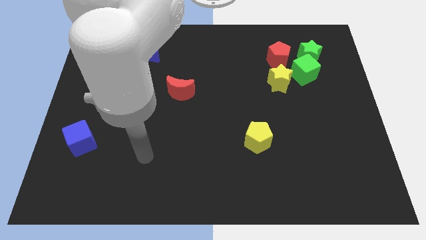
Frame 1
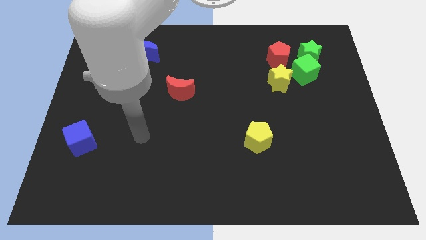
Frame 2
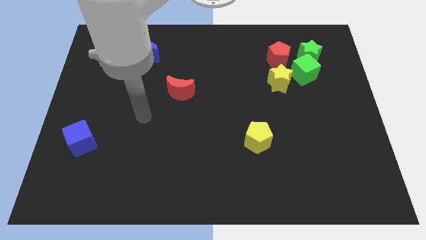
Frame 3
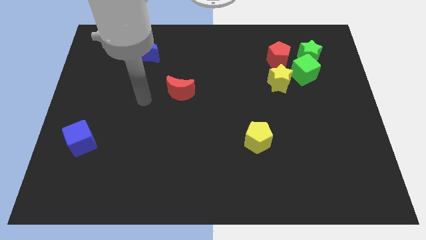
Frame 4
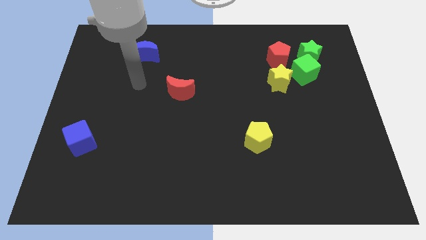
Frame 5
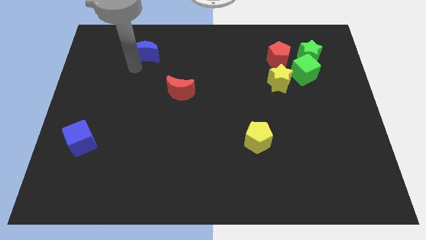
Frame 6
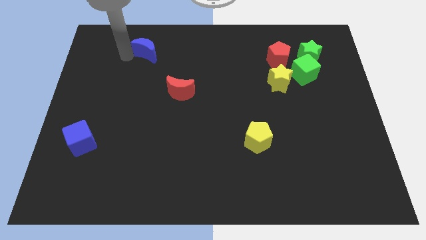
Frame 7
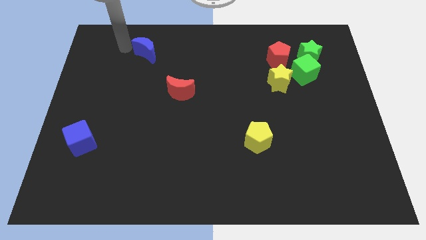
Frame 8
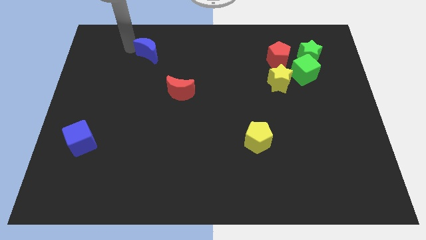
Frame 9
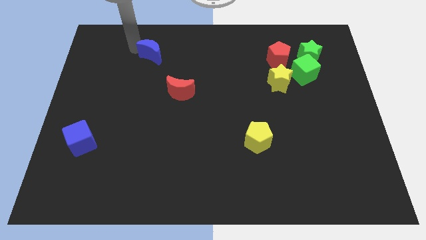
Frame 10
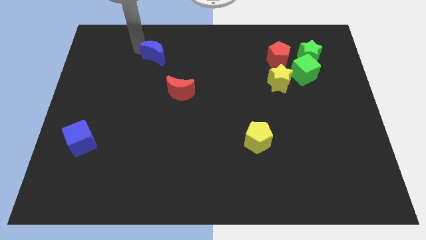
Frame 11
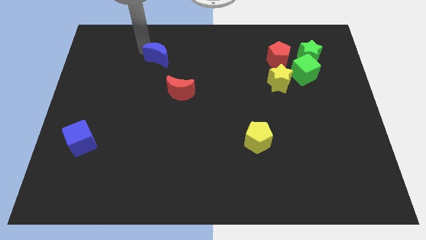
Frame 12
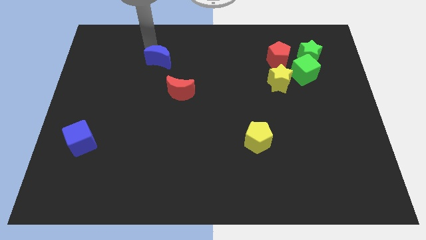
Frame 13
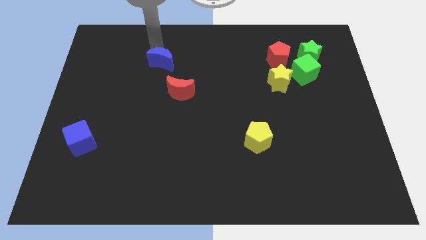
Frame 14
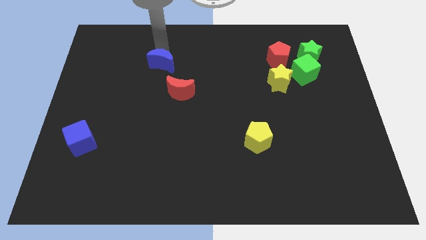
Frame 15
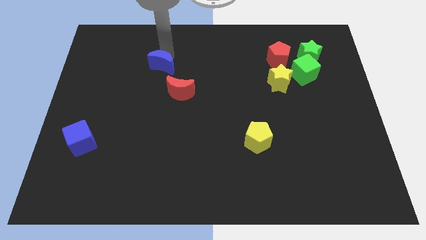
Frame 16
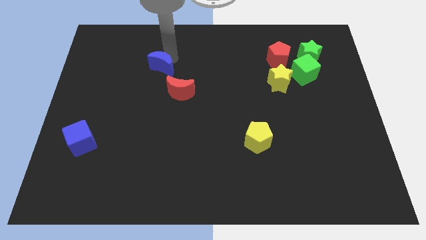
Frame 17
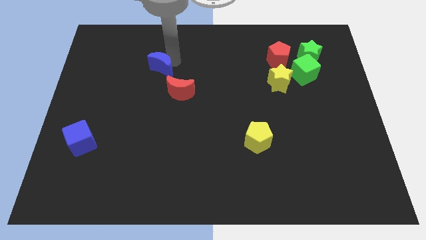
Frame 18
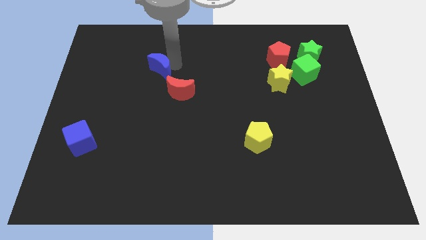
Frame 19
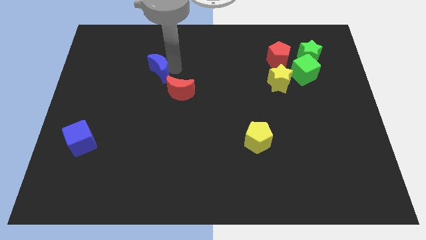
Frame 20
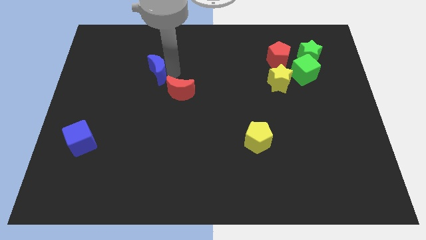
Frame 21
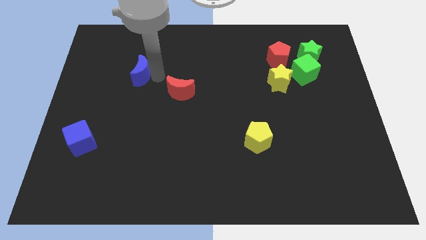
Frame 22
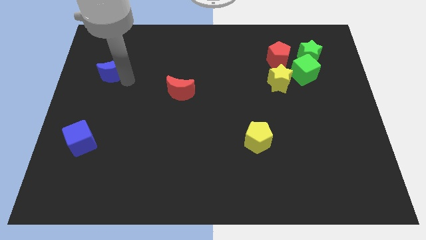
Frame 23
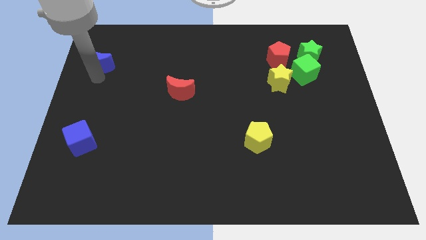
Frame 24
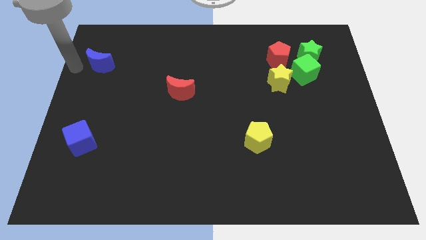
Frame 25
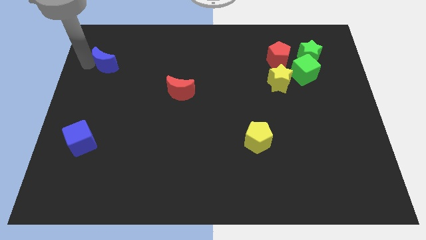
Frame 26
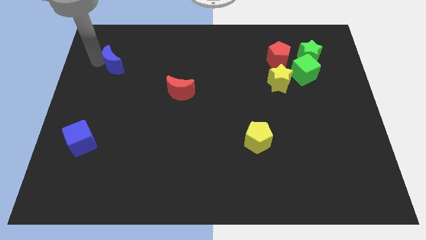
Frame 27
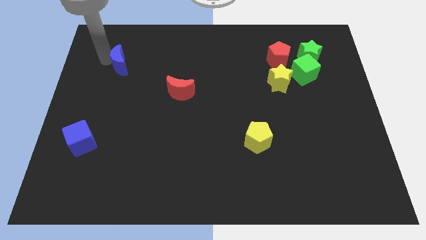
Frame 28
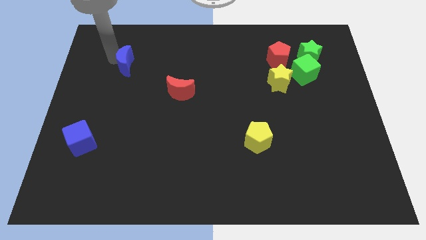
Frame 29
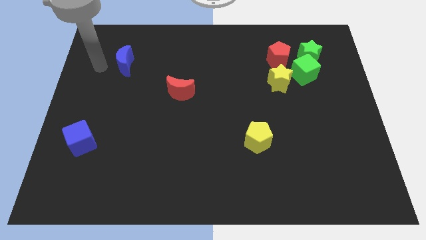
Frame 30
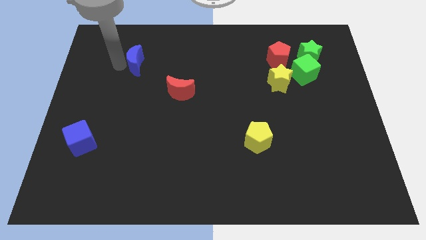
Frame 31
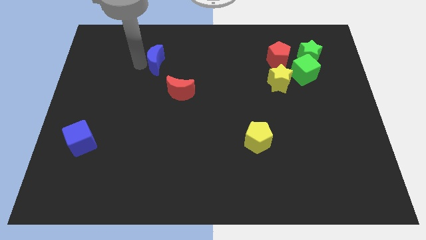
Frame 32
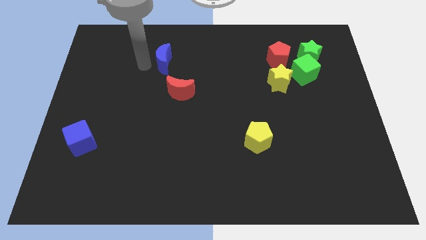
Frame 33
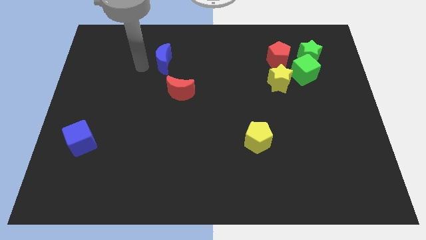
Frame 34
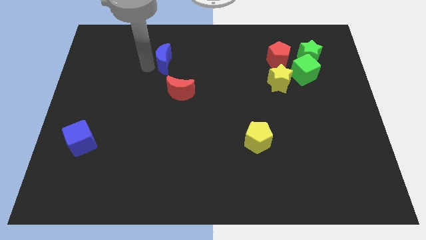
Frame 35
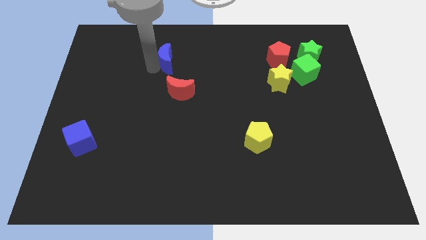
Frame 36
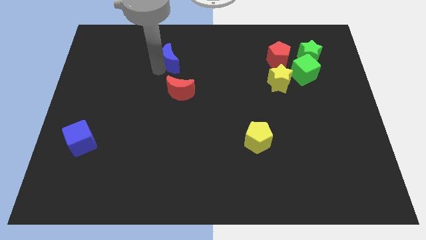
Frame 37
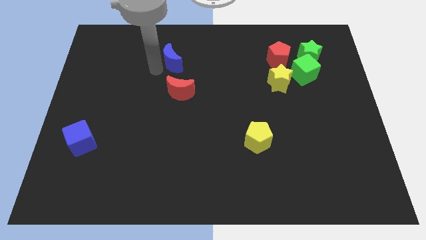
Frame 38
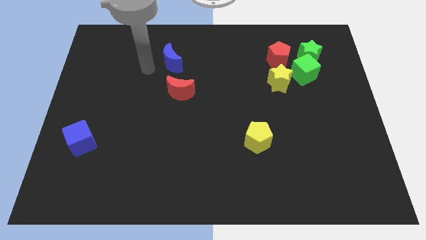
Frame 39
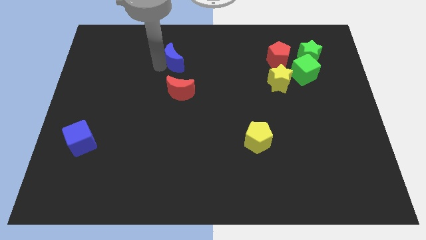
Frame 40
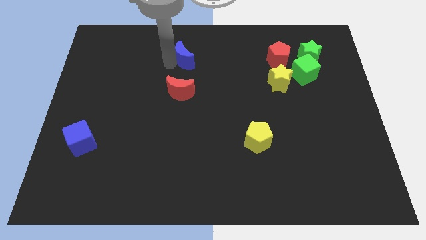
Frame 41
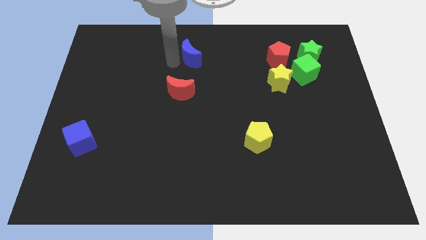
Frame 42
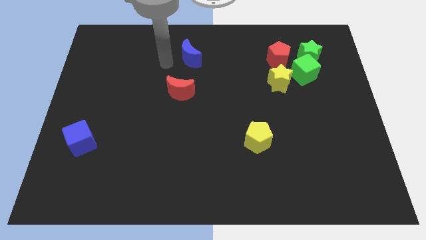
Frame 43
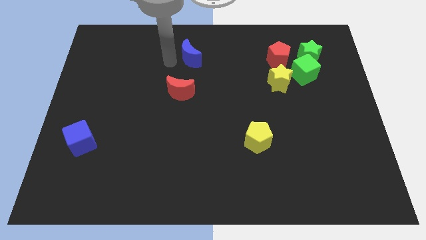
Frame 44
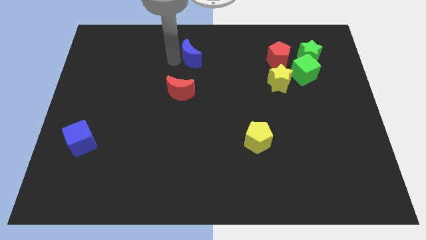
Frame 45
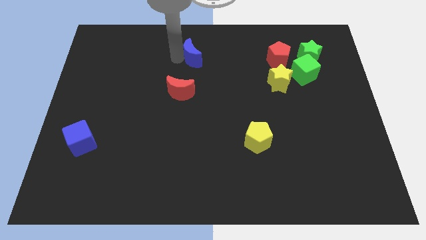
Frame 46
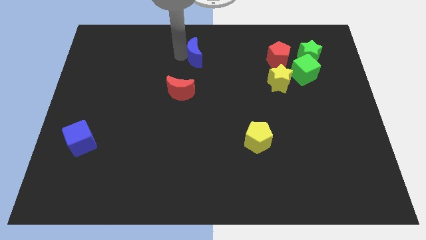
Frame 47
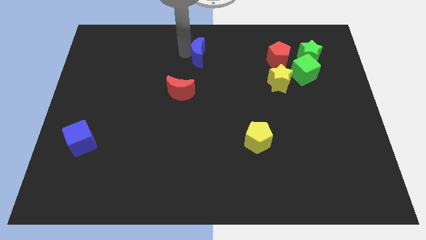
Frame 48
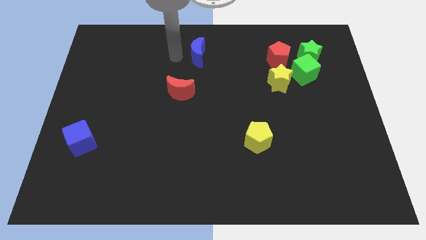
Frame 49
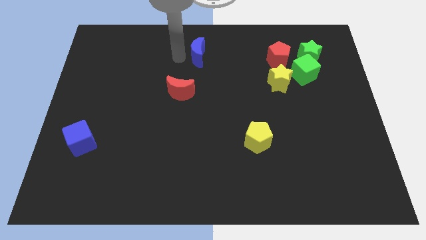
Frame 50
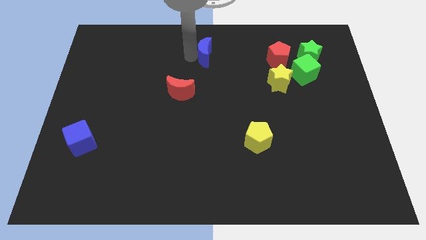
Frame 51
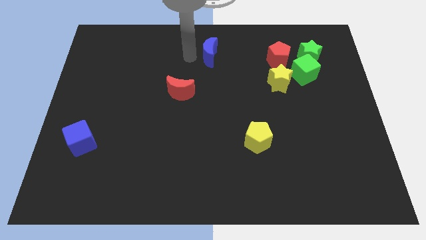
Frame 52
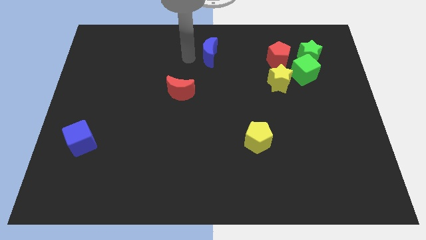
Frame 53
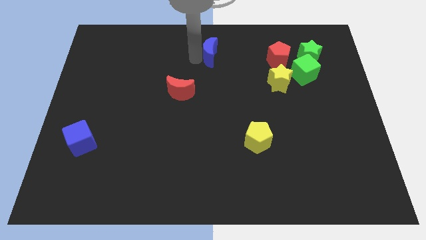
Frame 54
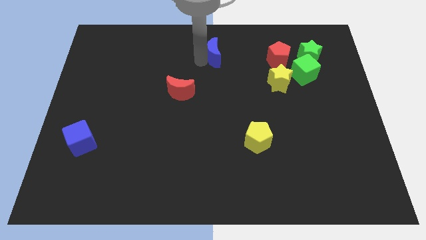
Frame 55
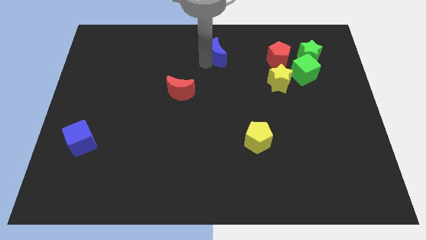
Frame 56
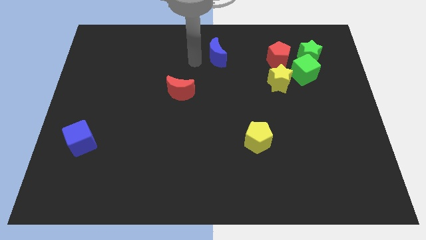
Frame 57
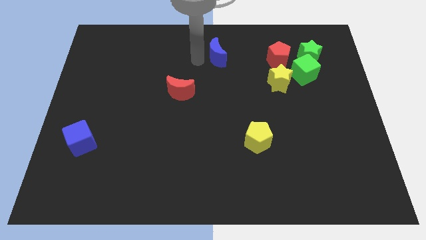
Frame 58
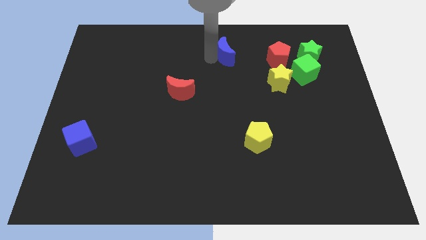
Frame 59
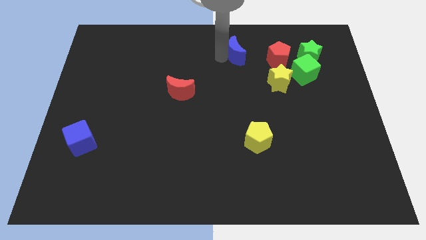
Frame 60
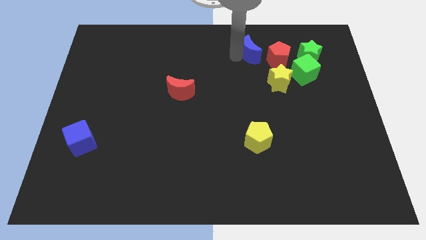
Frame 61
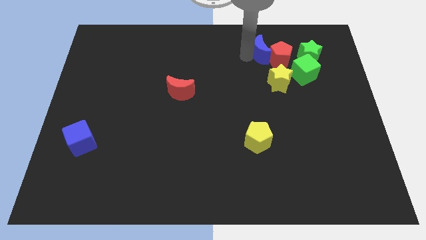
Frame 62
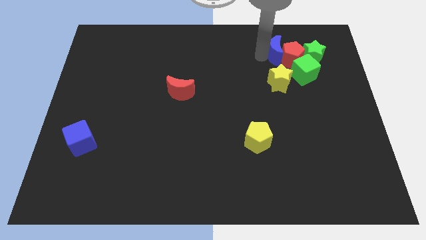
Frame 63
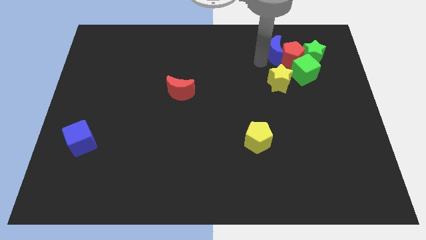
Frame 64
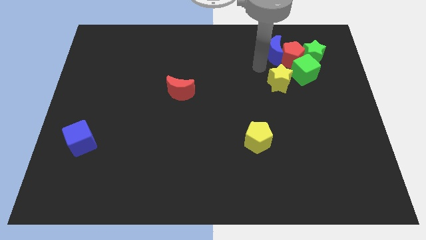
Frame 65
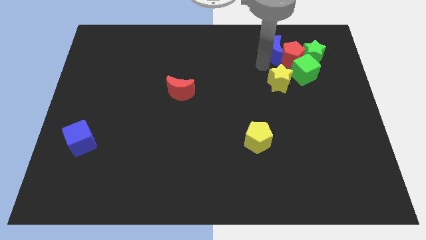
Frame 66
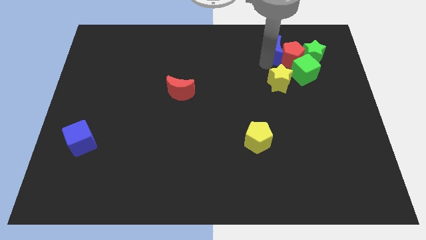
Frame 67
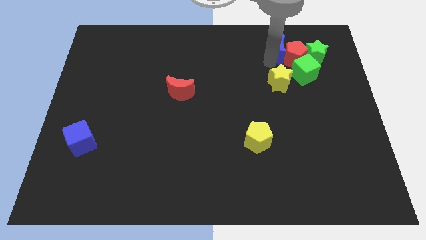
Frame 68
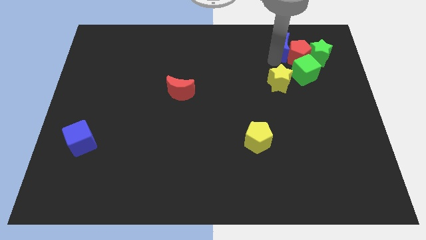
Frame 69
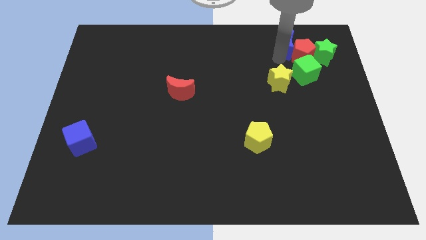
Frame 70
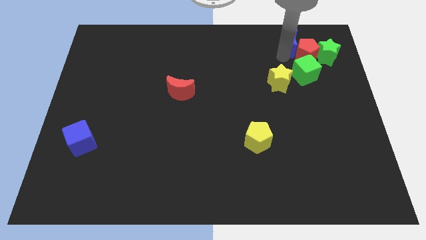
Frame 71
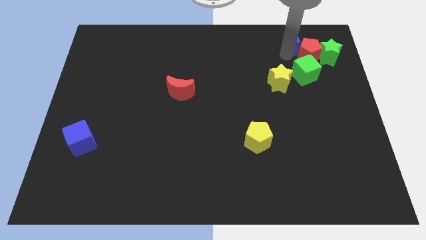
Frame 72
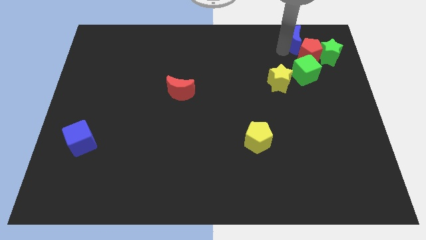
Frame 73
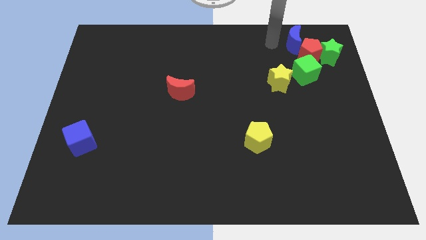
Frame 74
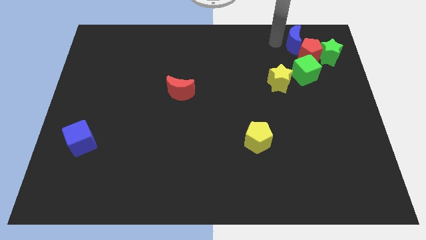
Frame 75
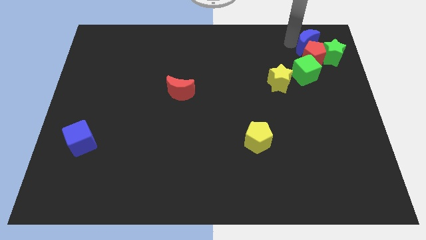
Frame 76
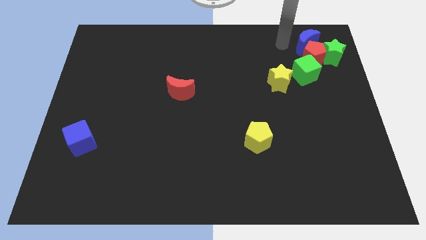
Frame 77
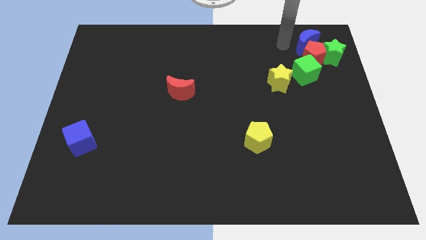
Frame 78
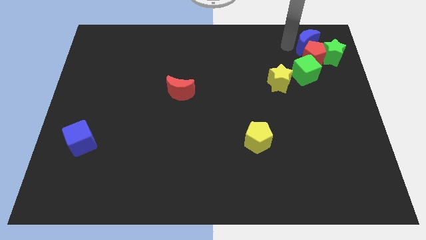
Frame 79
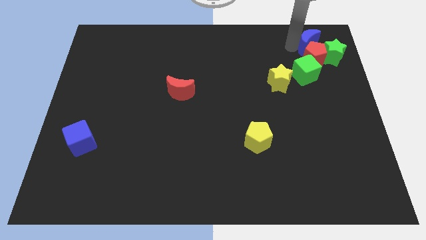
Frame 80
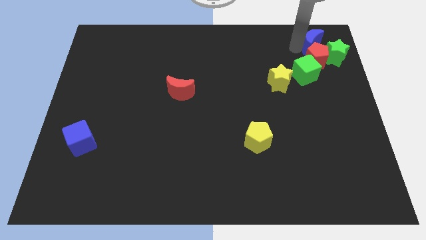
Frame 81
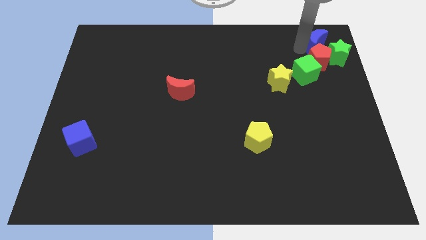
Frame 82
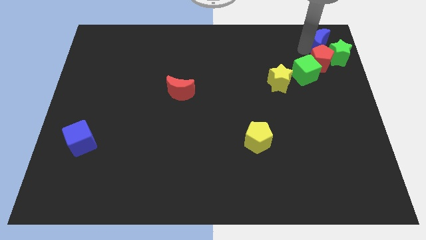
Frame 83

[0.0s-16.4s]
put the blue moon to the top right corner
